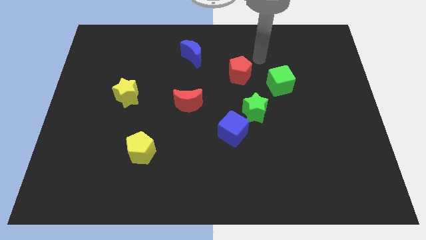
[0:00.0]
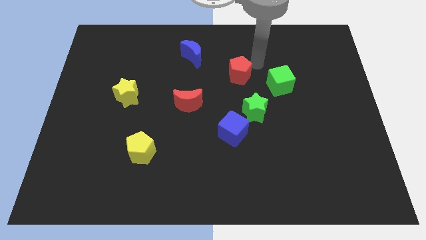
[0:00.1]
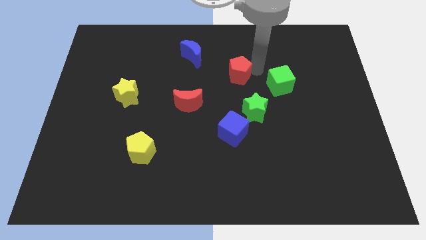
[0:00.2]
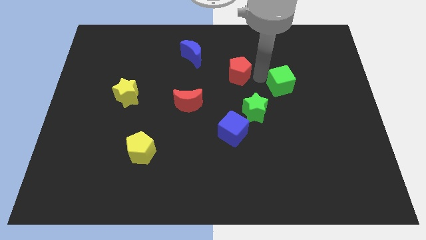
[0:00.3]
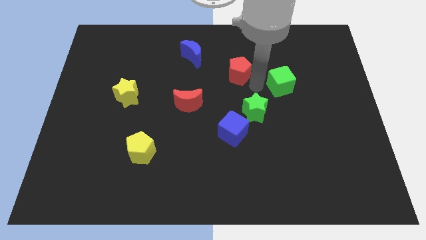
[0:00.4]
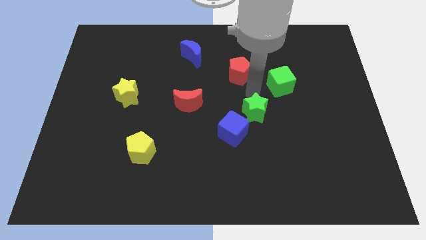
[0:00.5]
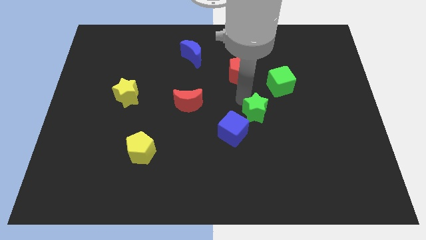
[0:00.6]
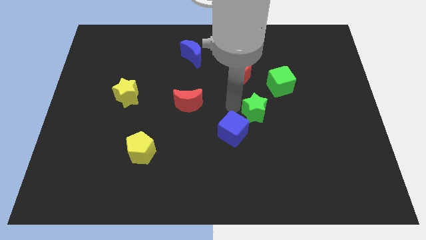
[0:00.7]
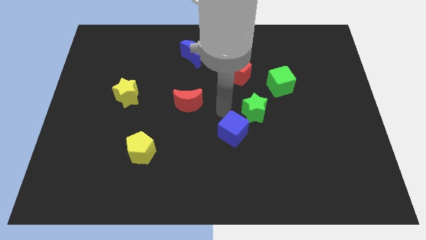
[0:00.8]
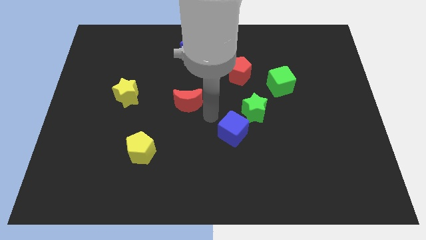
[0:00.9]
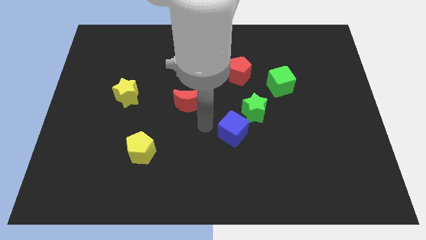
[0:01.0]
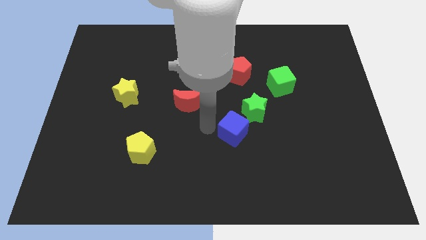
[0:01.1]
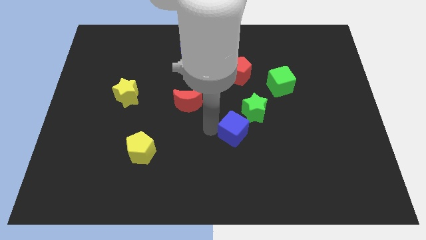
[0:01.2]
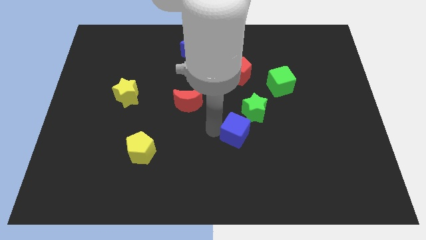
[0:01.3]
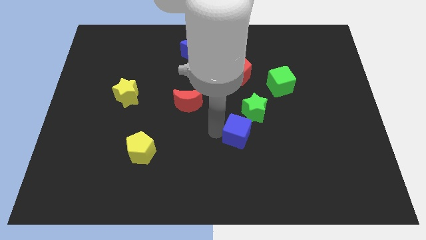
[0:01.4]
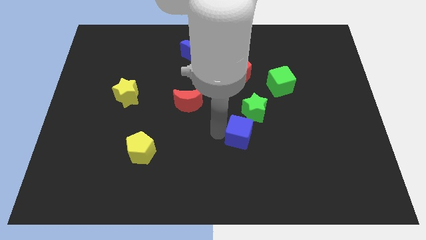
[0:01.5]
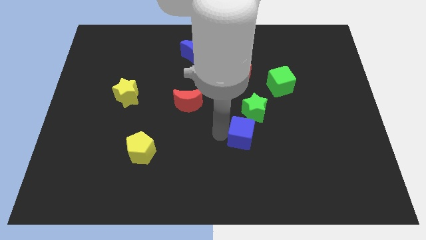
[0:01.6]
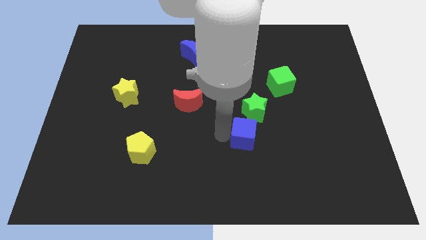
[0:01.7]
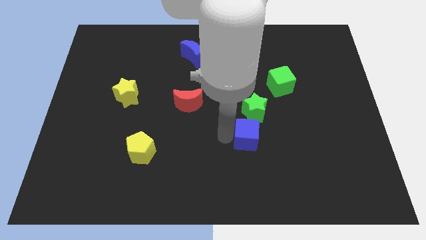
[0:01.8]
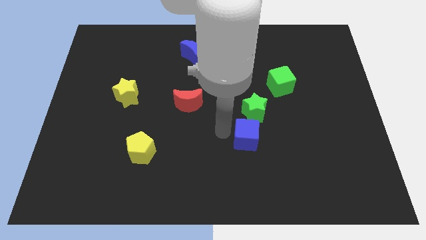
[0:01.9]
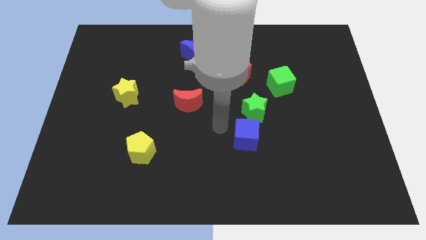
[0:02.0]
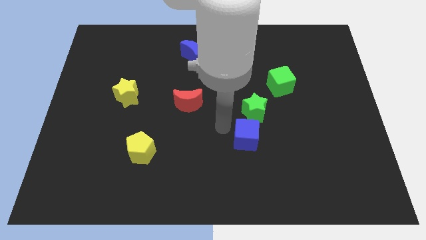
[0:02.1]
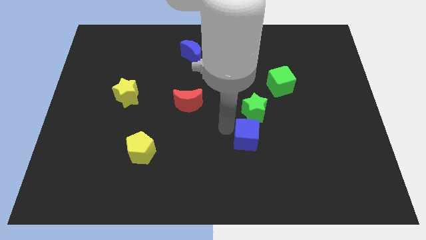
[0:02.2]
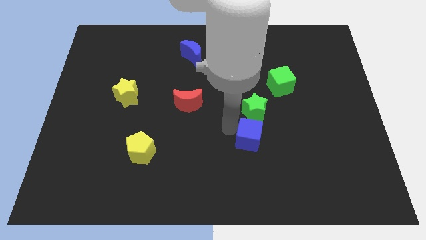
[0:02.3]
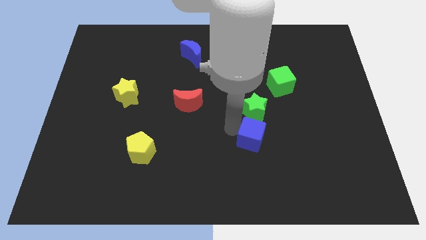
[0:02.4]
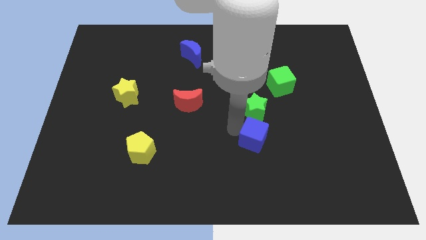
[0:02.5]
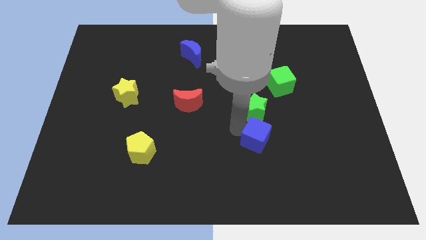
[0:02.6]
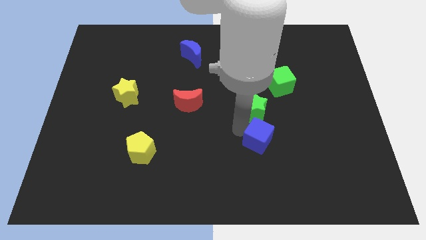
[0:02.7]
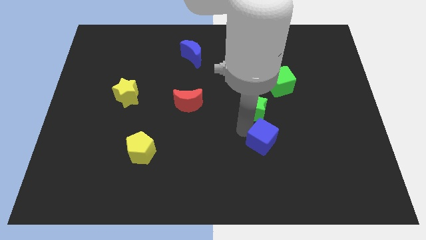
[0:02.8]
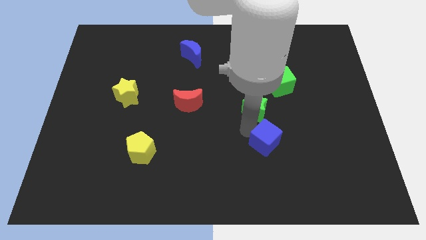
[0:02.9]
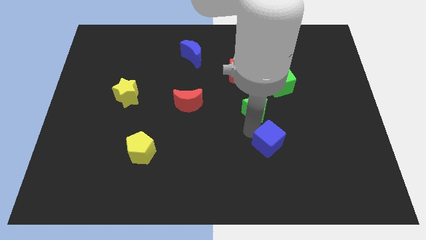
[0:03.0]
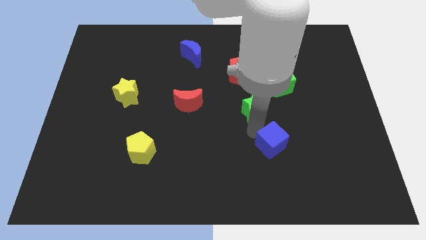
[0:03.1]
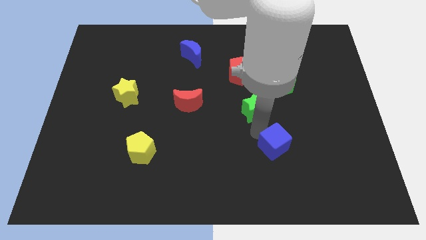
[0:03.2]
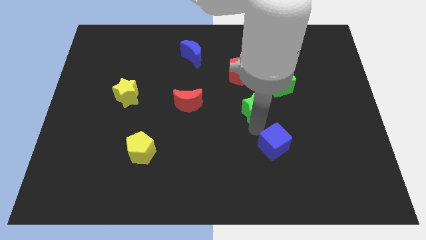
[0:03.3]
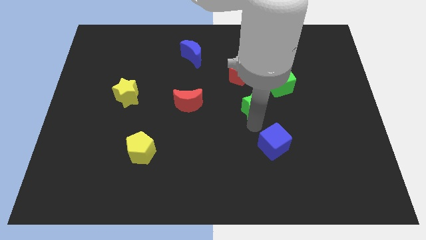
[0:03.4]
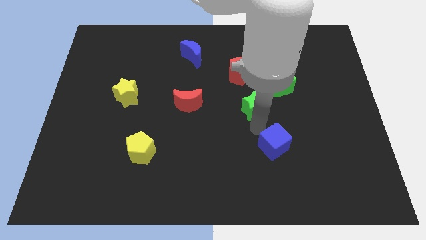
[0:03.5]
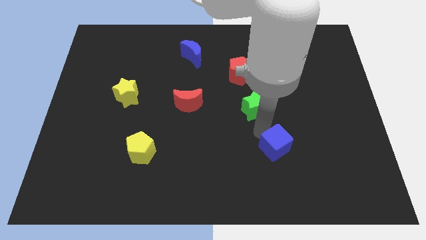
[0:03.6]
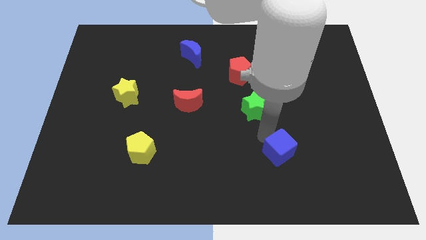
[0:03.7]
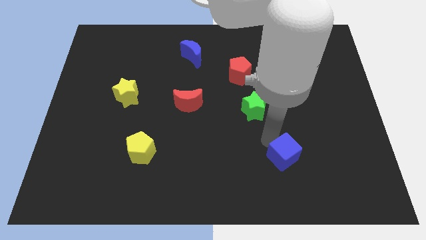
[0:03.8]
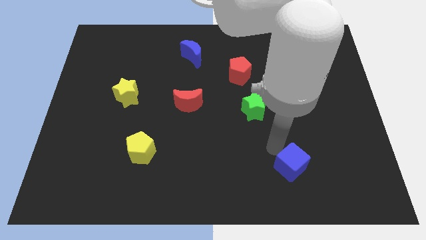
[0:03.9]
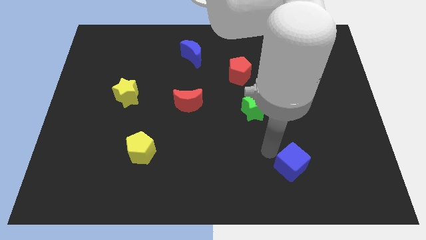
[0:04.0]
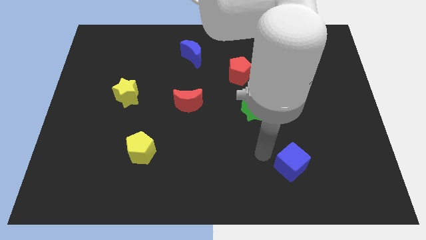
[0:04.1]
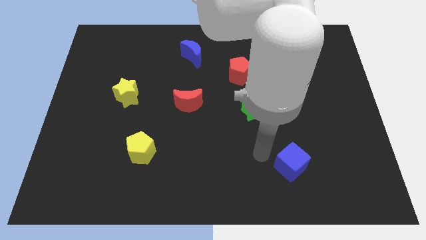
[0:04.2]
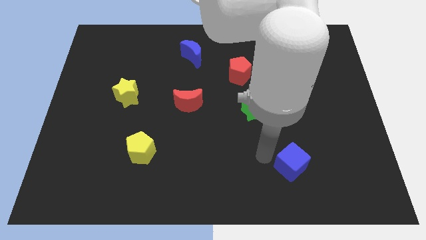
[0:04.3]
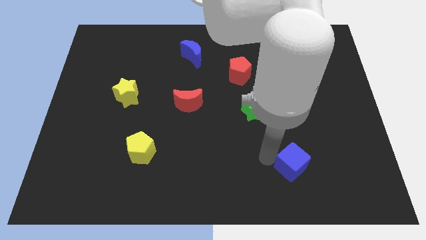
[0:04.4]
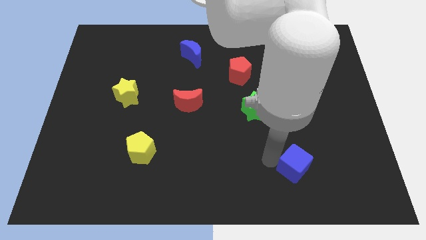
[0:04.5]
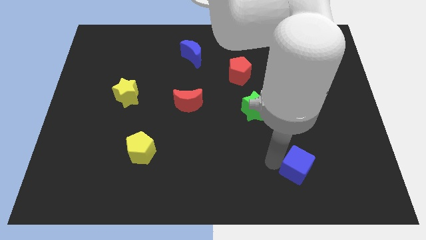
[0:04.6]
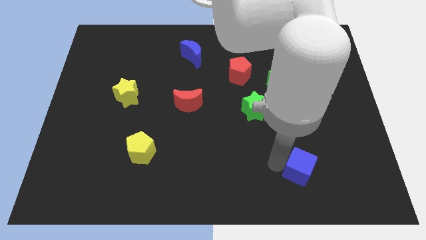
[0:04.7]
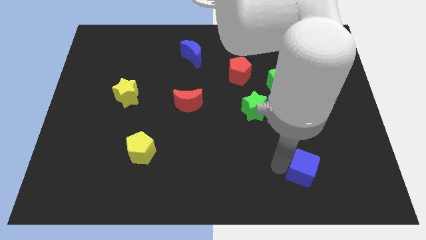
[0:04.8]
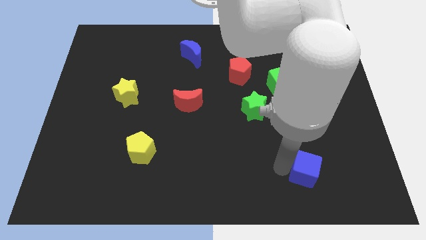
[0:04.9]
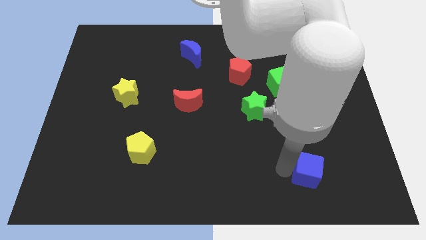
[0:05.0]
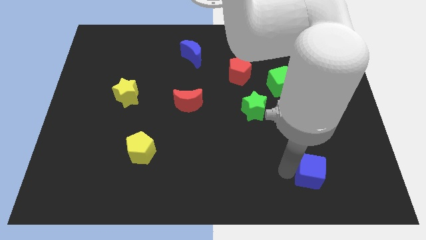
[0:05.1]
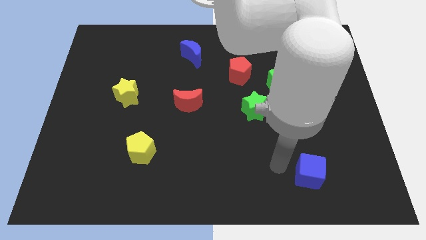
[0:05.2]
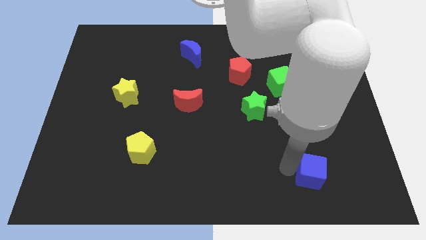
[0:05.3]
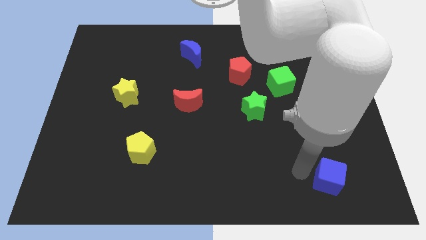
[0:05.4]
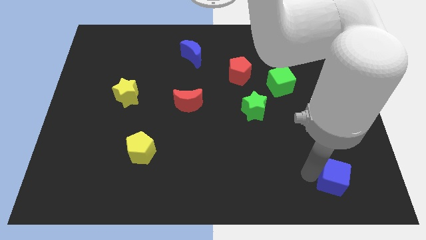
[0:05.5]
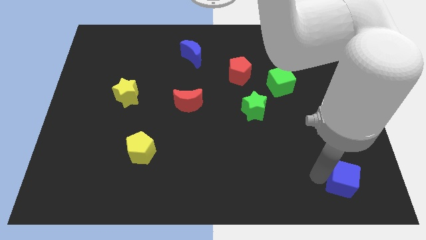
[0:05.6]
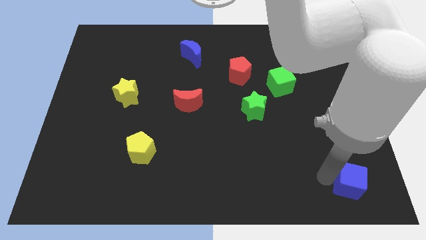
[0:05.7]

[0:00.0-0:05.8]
move the blue cube to the lower right corner

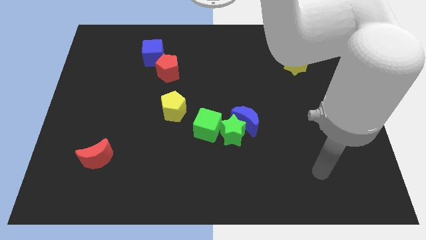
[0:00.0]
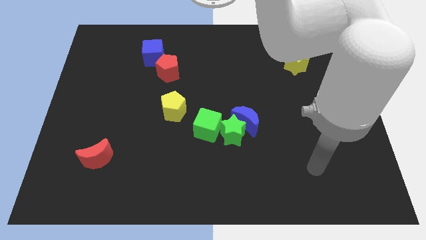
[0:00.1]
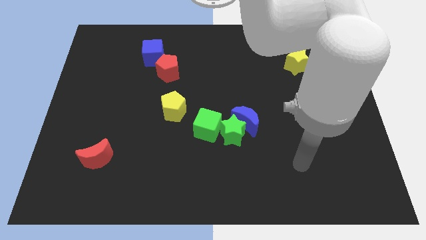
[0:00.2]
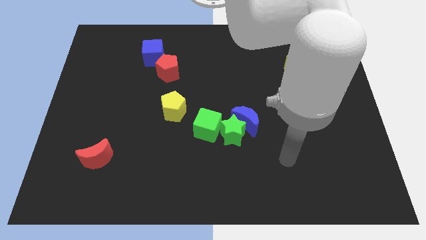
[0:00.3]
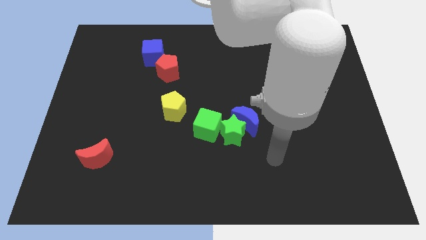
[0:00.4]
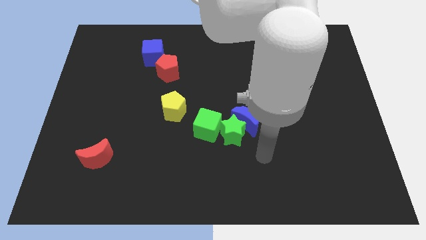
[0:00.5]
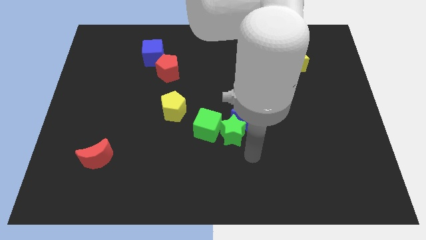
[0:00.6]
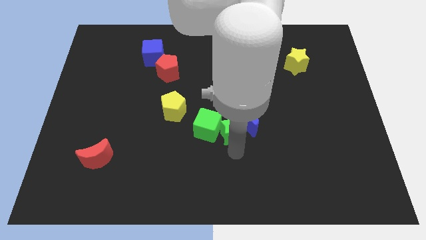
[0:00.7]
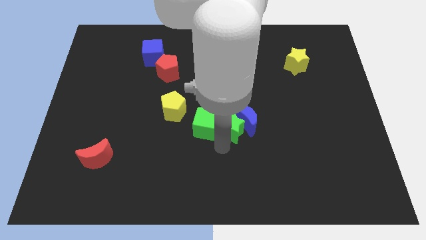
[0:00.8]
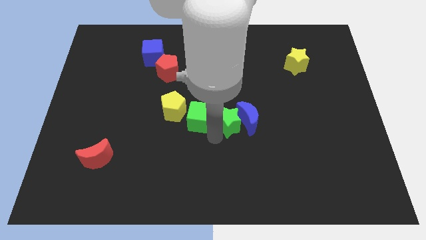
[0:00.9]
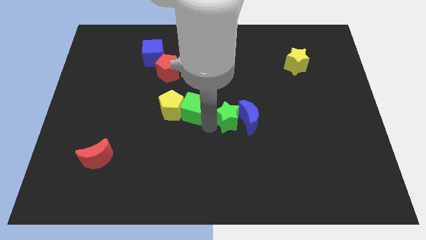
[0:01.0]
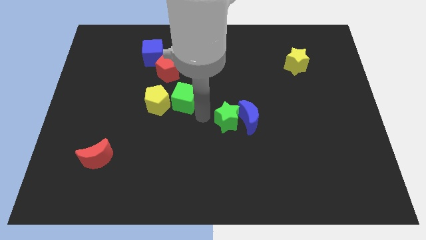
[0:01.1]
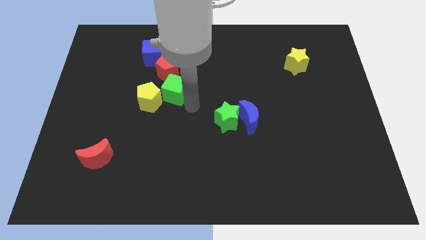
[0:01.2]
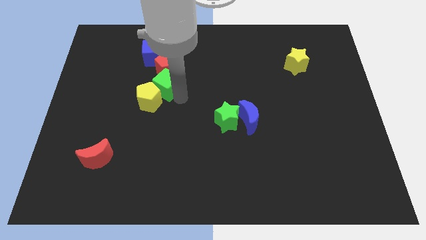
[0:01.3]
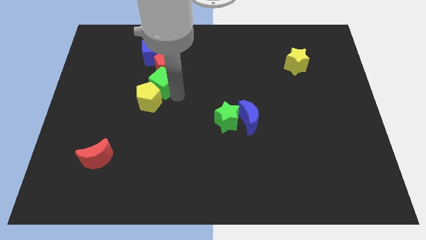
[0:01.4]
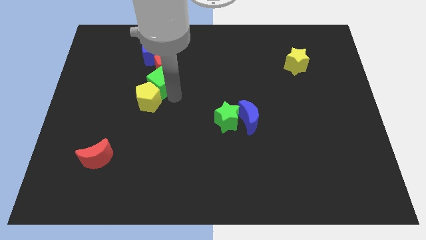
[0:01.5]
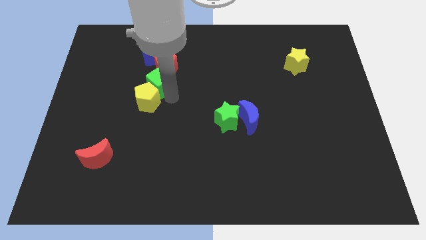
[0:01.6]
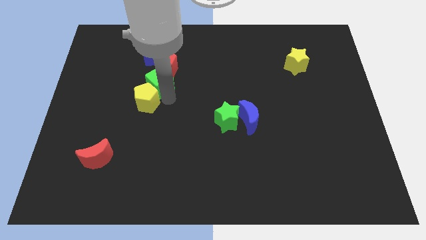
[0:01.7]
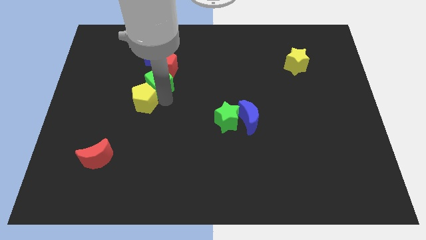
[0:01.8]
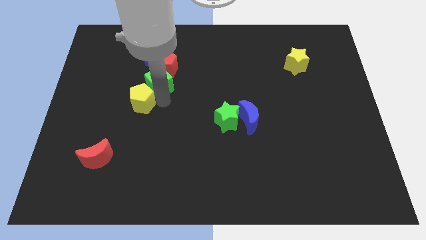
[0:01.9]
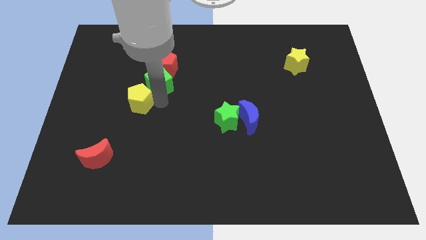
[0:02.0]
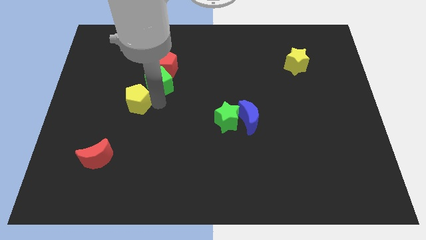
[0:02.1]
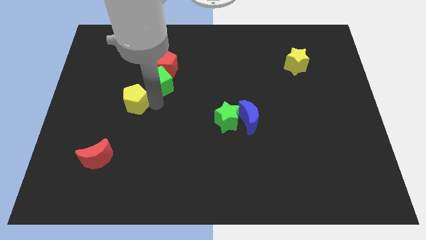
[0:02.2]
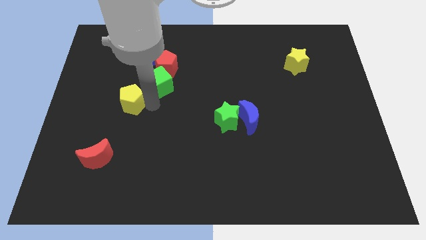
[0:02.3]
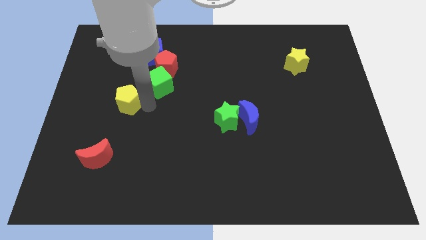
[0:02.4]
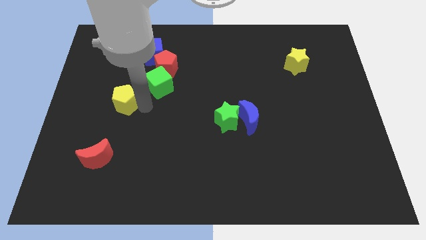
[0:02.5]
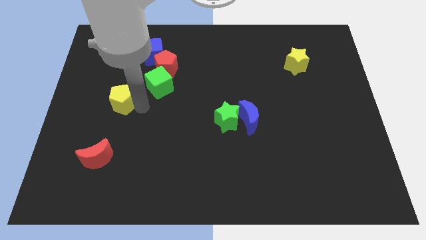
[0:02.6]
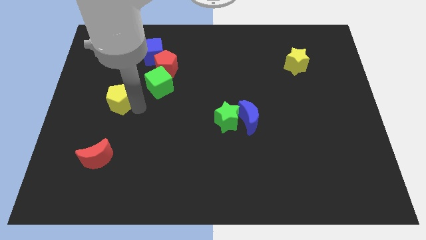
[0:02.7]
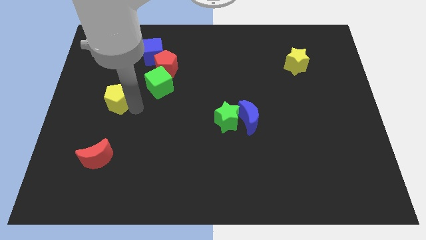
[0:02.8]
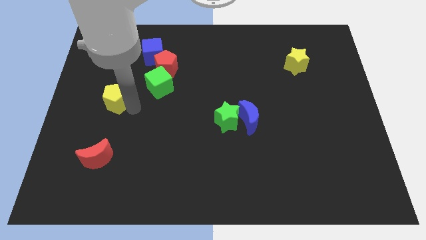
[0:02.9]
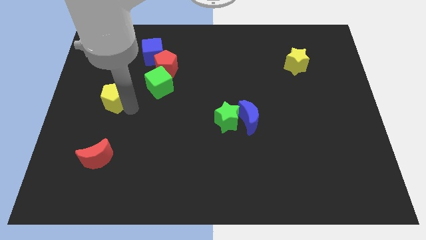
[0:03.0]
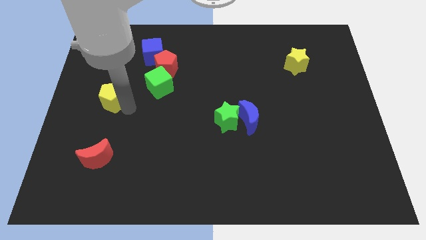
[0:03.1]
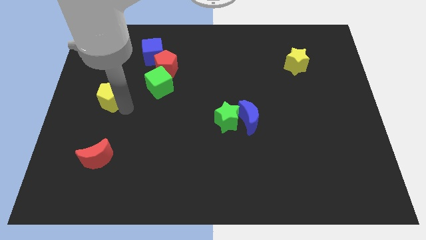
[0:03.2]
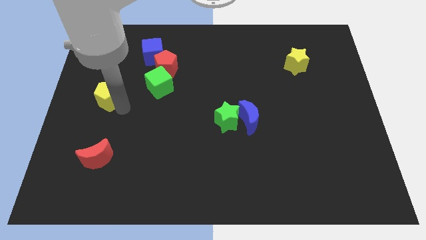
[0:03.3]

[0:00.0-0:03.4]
slide the yellow pentagon to the center left
